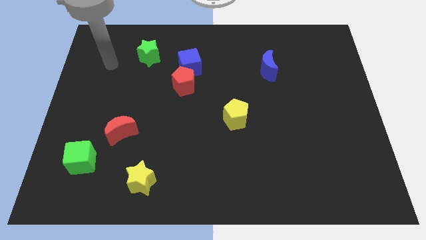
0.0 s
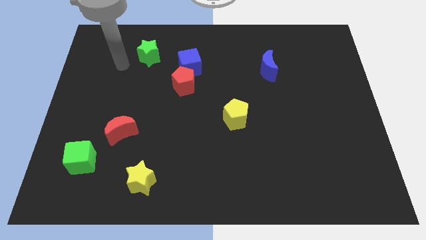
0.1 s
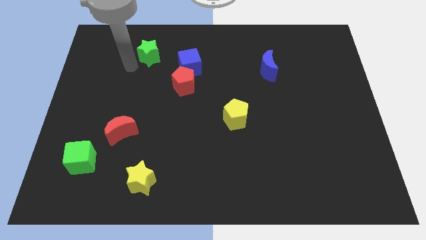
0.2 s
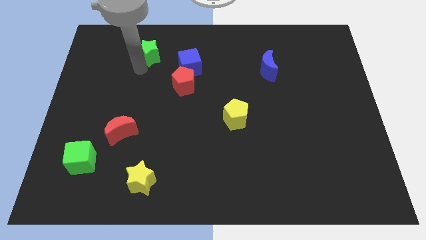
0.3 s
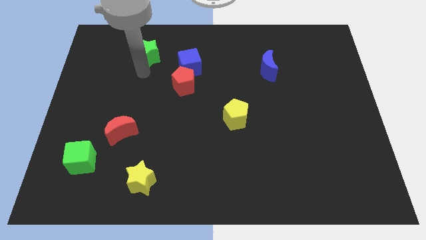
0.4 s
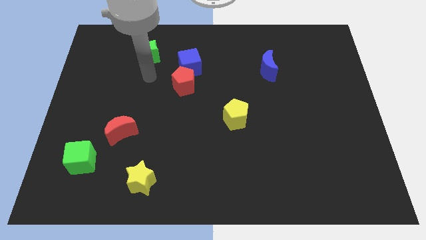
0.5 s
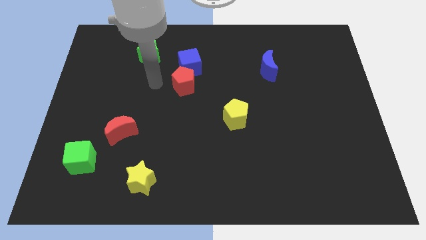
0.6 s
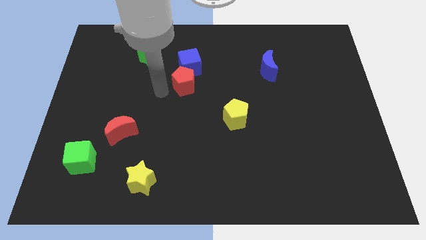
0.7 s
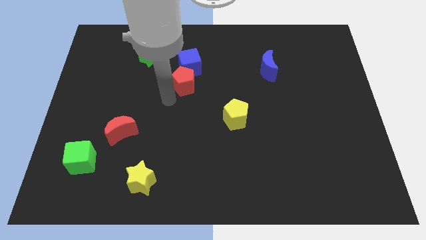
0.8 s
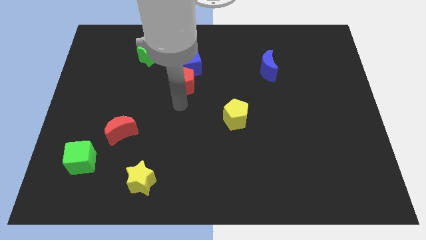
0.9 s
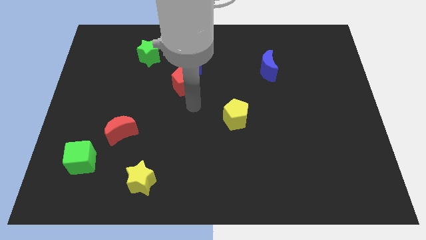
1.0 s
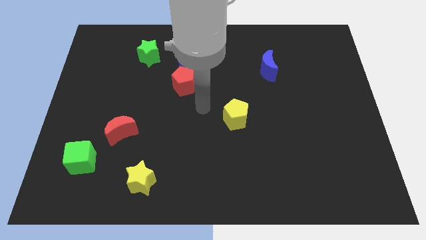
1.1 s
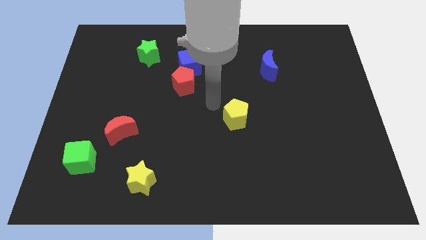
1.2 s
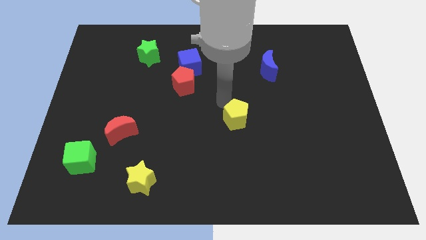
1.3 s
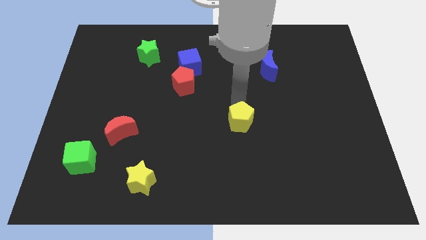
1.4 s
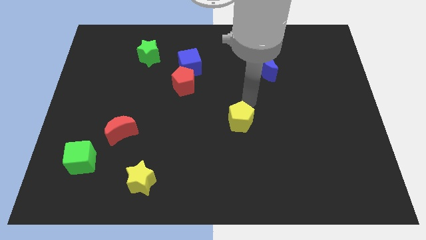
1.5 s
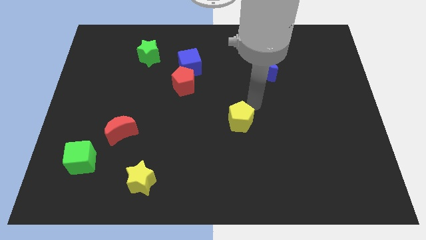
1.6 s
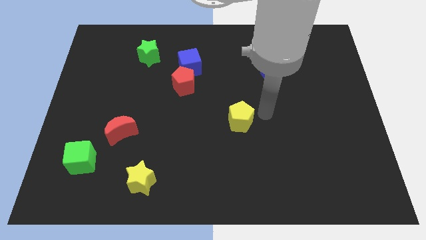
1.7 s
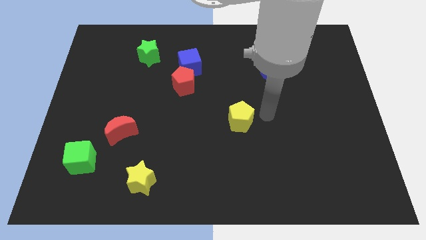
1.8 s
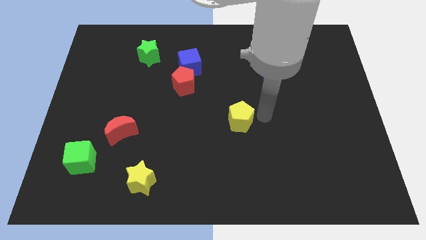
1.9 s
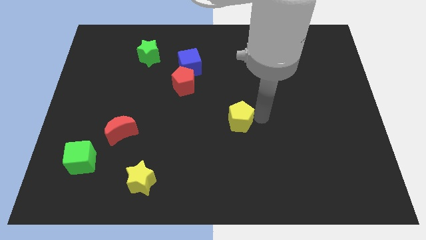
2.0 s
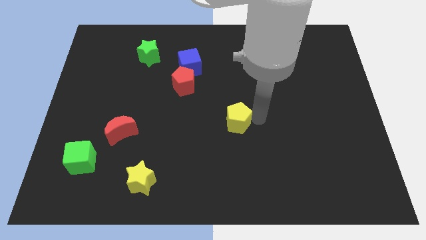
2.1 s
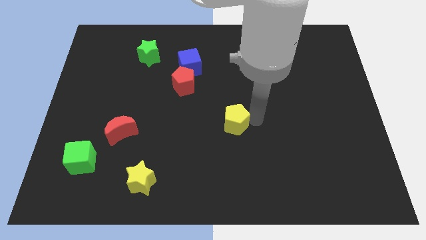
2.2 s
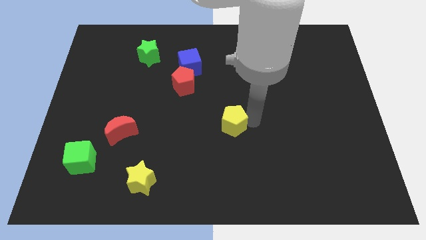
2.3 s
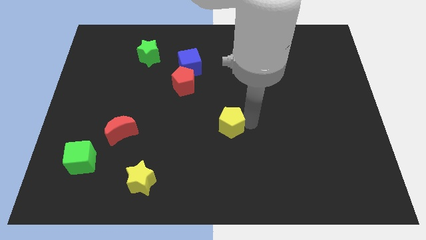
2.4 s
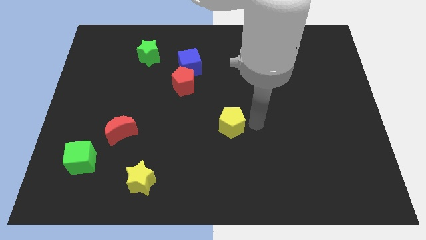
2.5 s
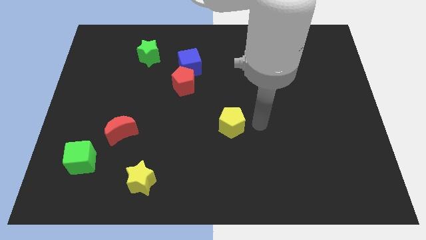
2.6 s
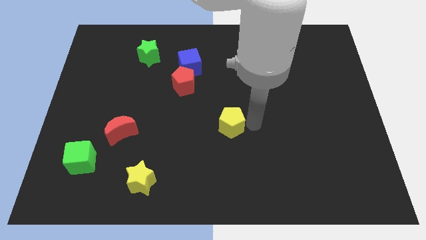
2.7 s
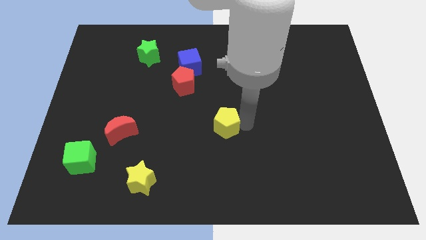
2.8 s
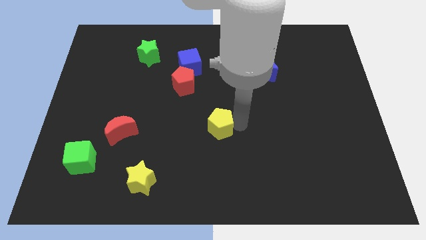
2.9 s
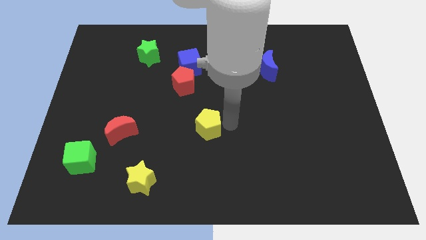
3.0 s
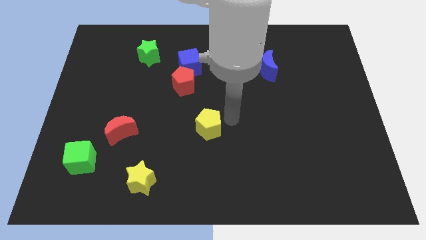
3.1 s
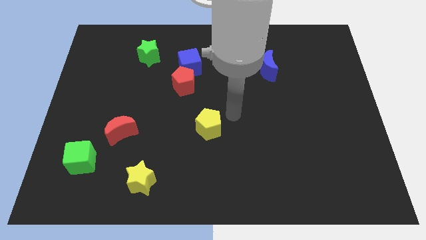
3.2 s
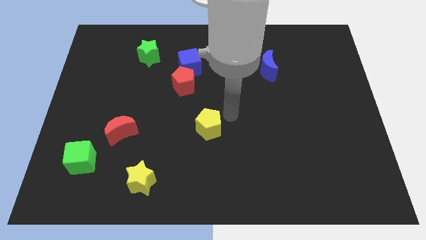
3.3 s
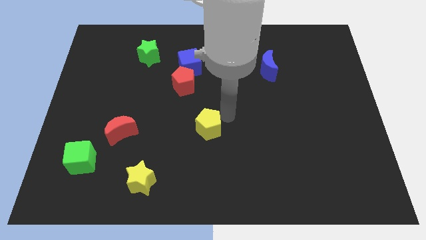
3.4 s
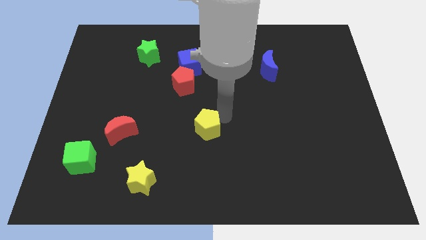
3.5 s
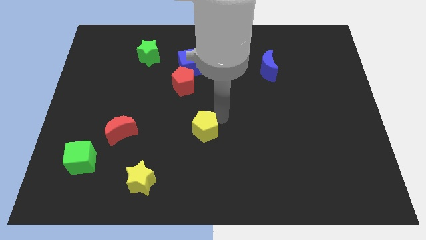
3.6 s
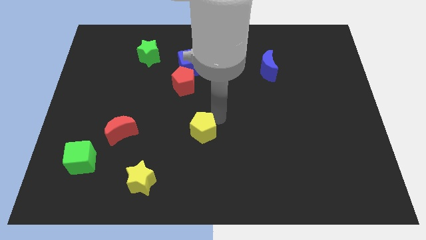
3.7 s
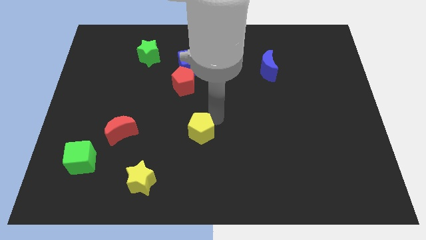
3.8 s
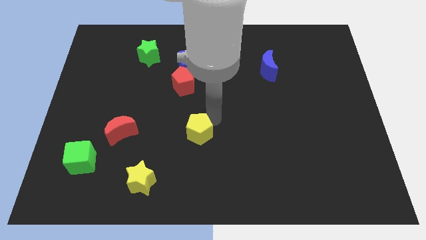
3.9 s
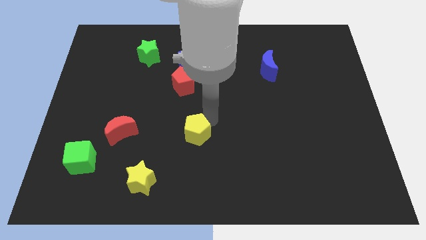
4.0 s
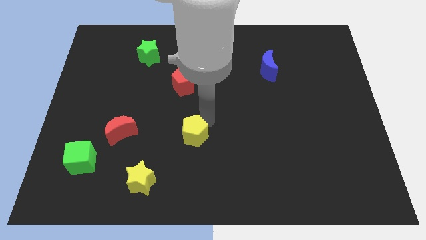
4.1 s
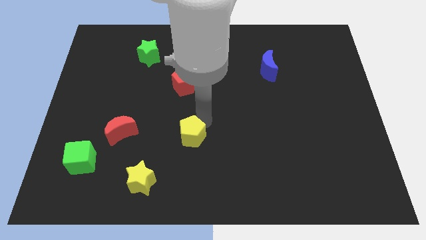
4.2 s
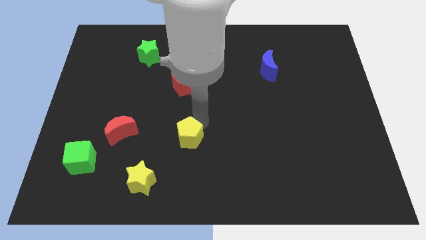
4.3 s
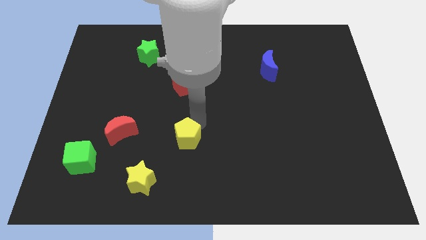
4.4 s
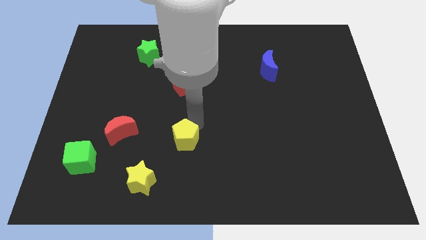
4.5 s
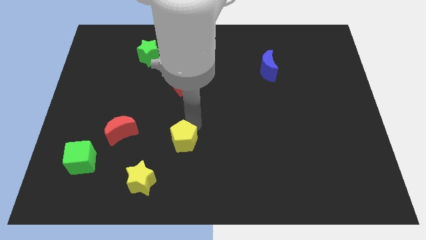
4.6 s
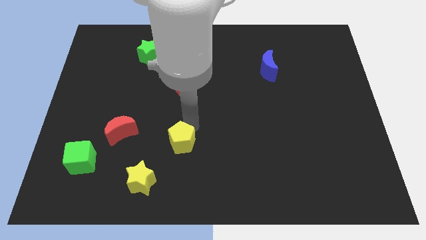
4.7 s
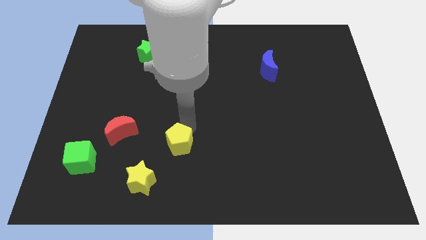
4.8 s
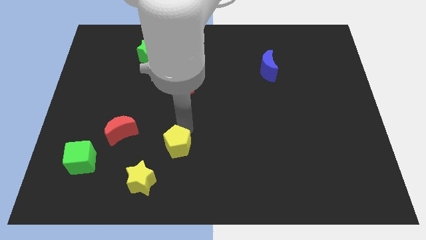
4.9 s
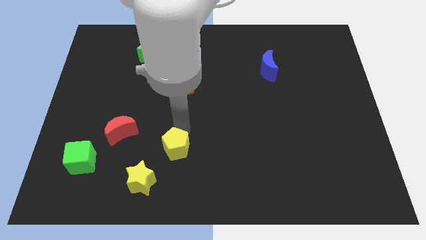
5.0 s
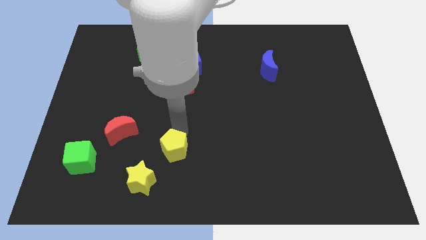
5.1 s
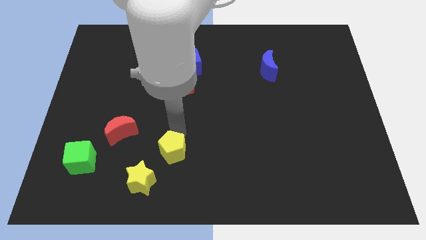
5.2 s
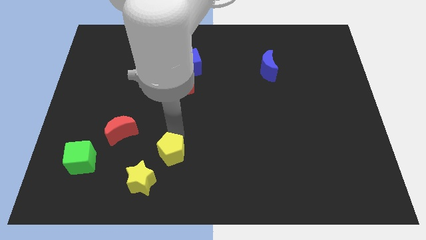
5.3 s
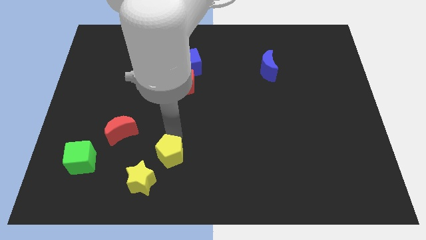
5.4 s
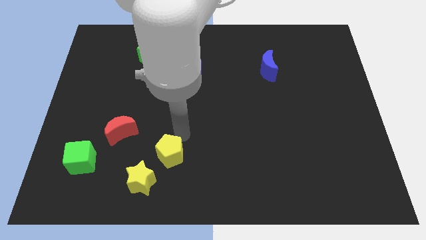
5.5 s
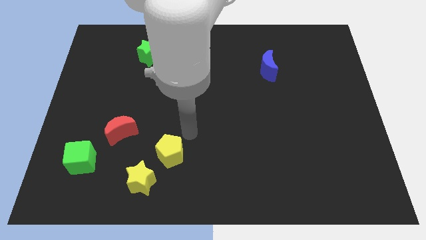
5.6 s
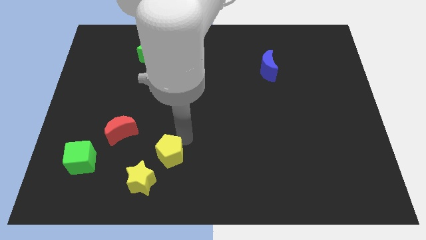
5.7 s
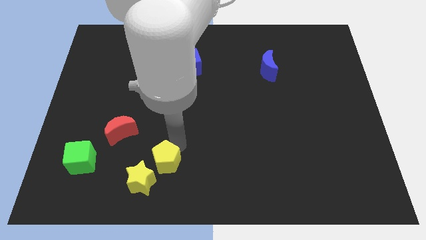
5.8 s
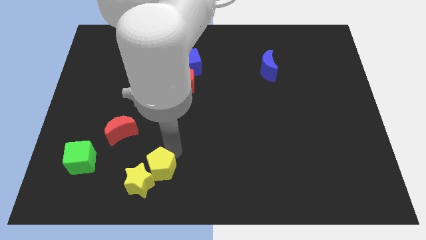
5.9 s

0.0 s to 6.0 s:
push the yellow pentagon towards the yellow star

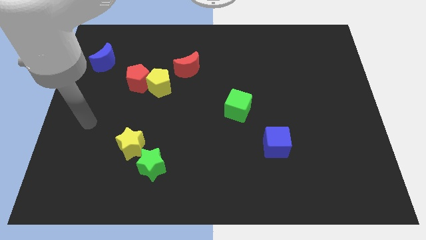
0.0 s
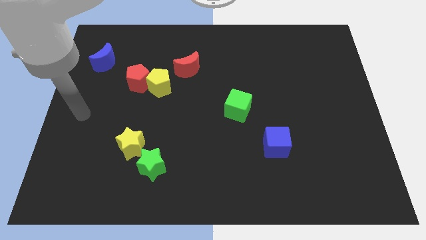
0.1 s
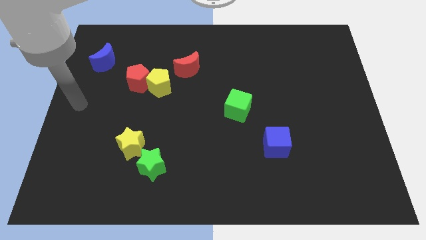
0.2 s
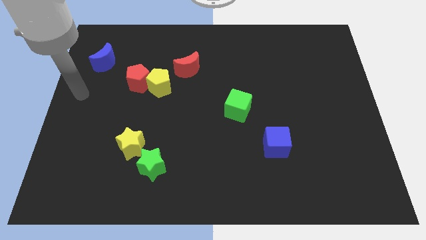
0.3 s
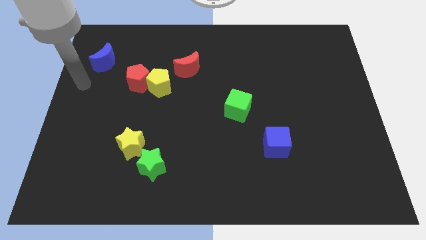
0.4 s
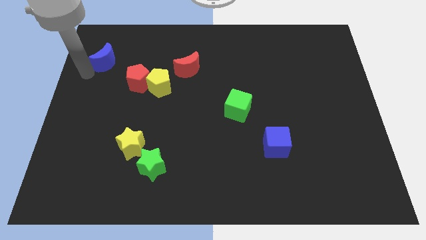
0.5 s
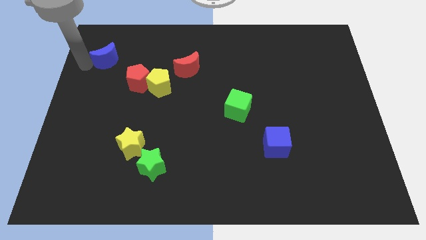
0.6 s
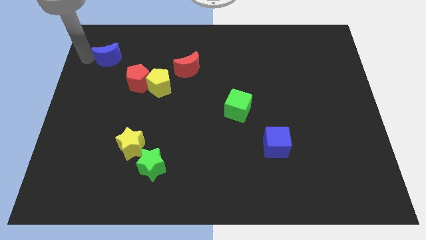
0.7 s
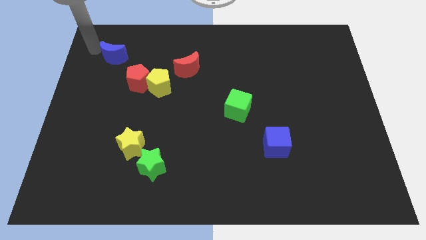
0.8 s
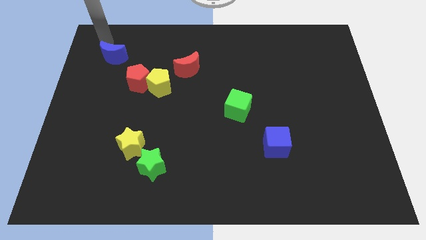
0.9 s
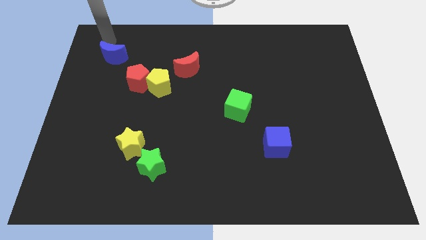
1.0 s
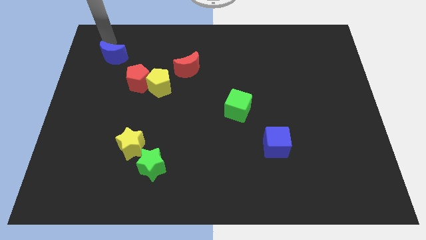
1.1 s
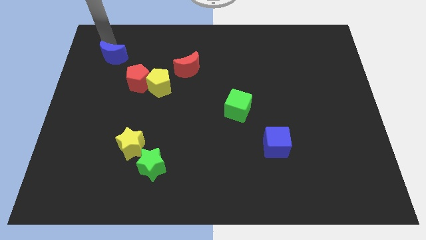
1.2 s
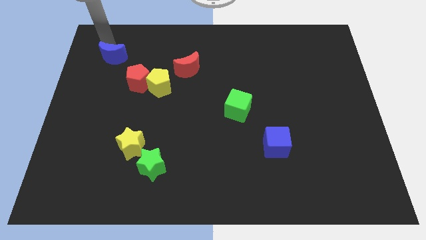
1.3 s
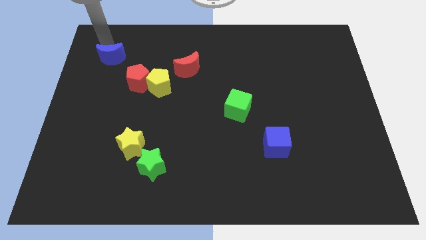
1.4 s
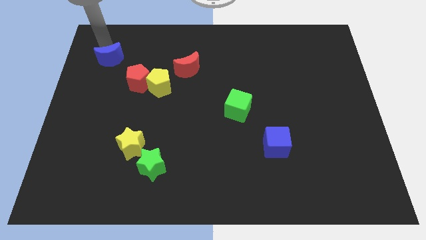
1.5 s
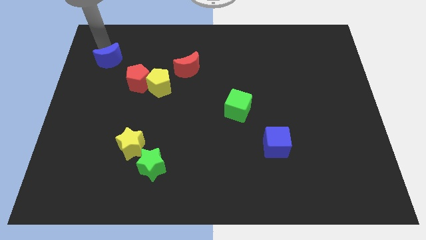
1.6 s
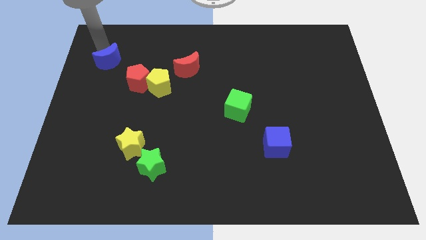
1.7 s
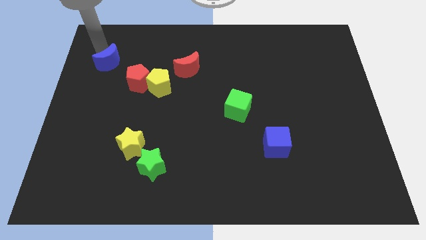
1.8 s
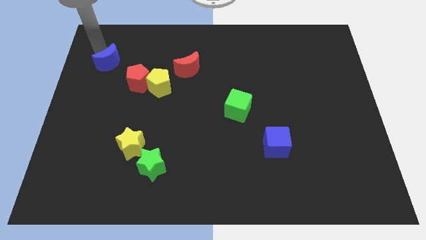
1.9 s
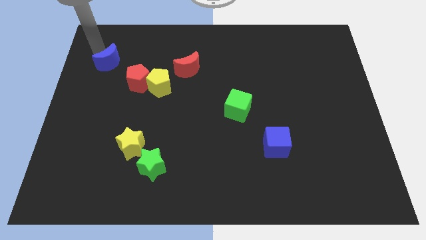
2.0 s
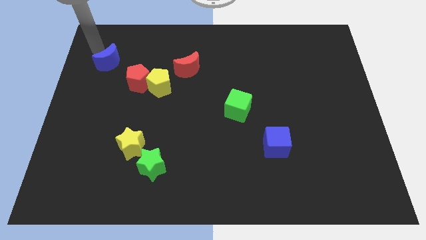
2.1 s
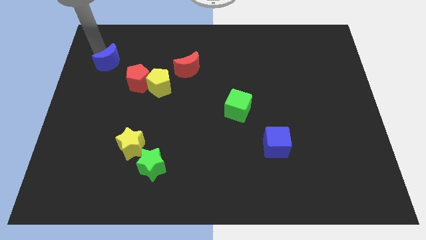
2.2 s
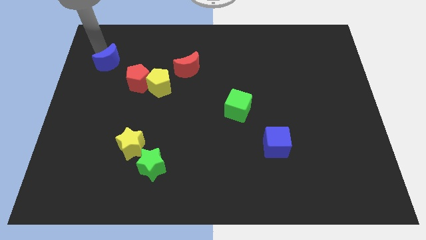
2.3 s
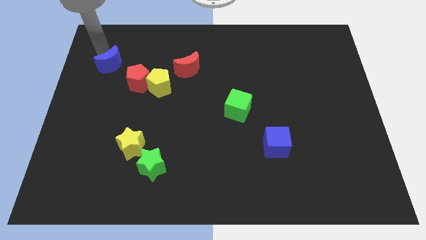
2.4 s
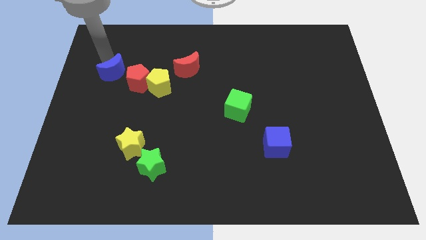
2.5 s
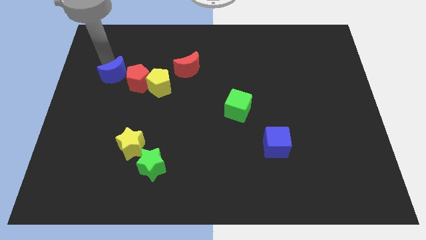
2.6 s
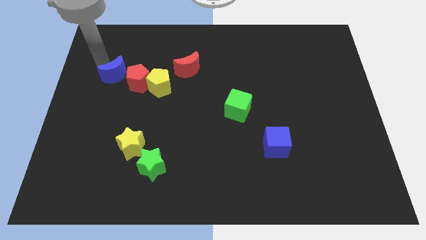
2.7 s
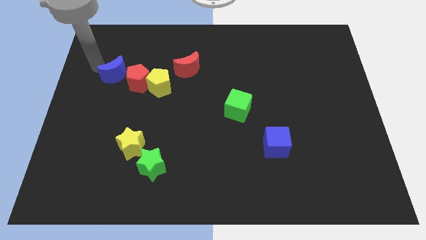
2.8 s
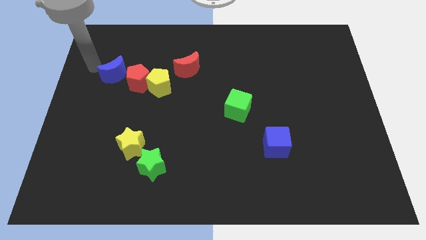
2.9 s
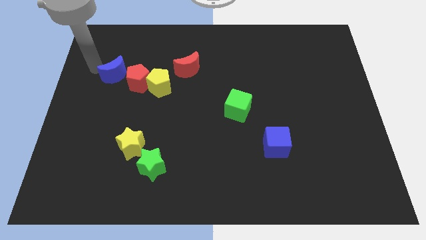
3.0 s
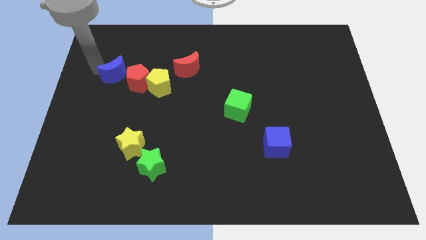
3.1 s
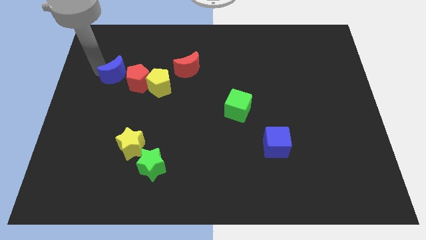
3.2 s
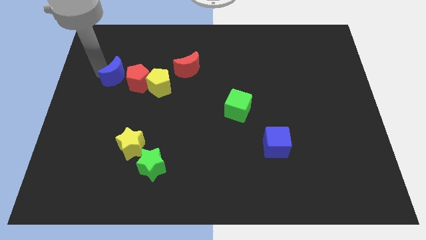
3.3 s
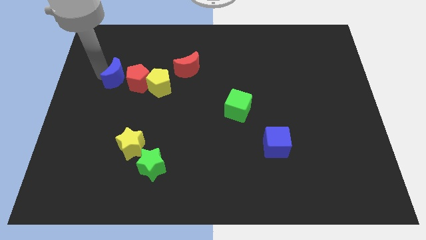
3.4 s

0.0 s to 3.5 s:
push the blue moon to the red pentagon
